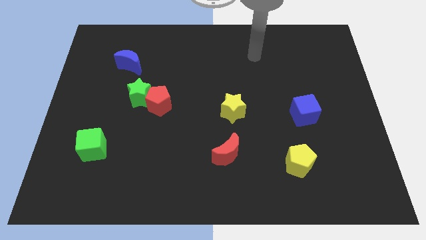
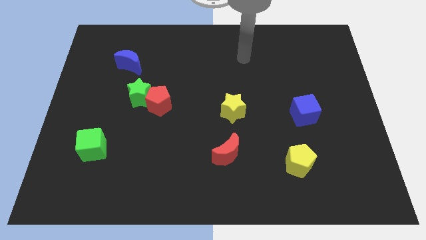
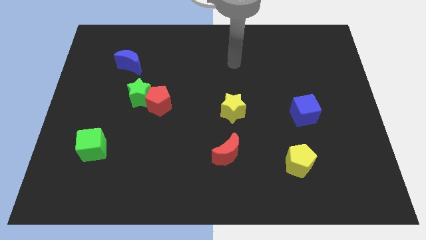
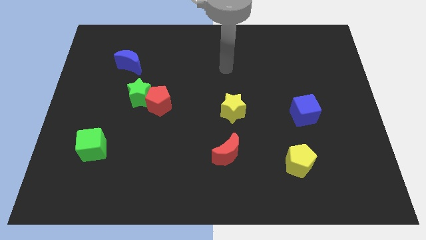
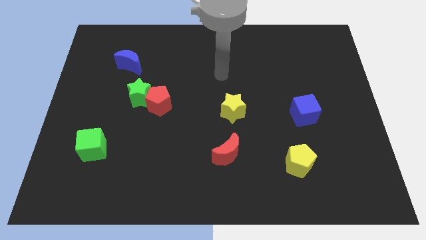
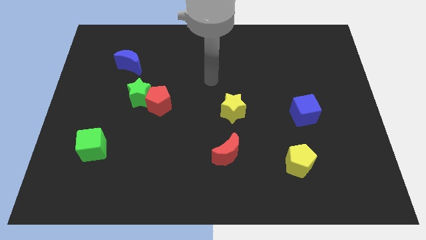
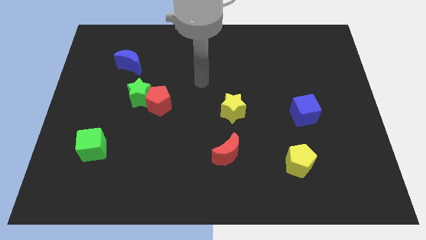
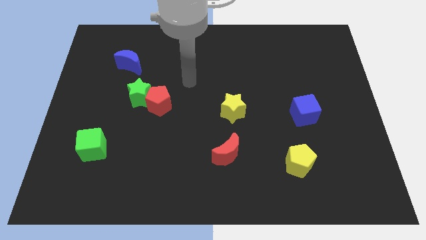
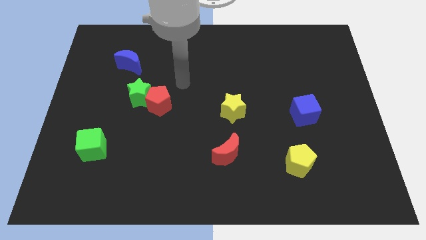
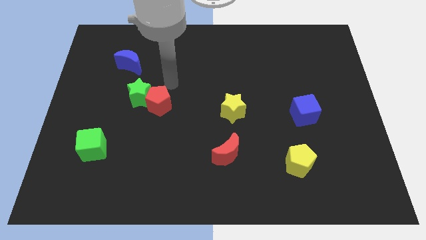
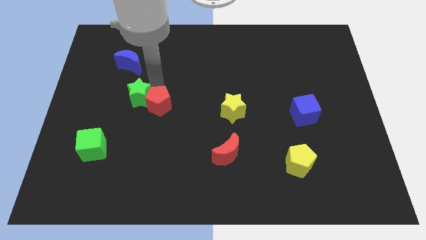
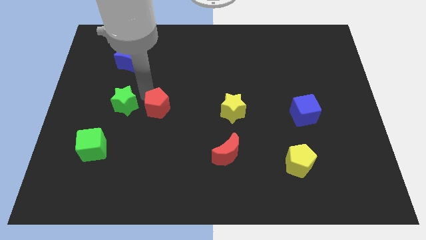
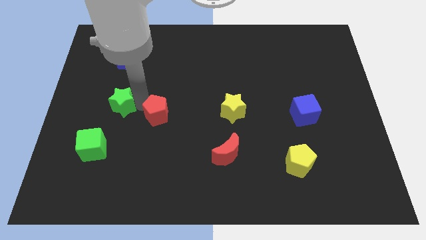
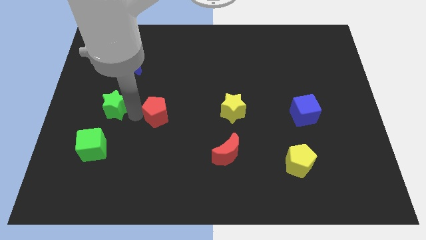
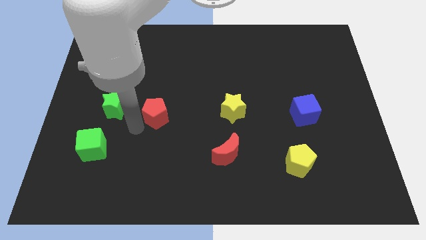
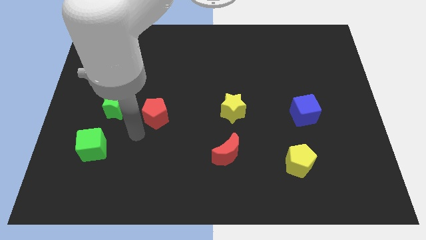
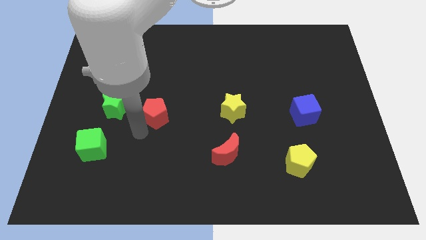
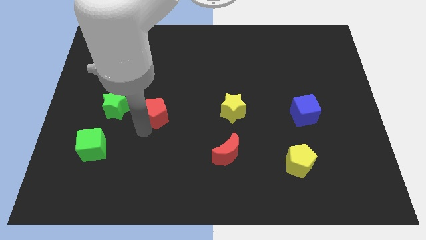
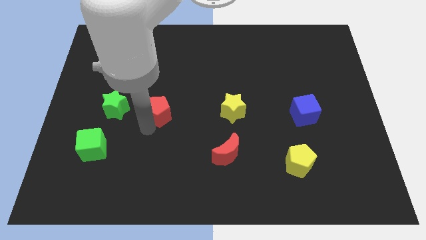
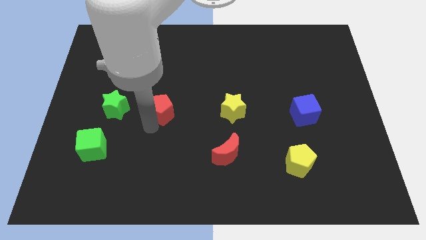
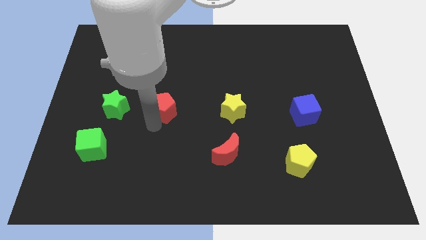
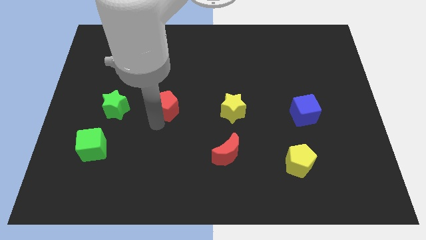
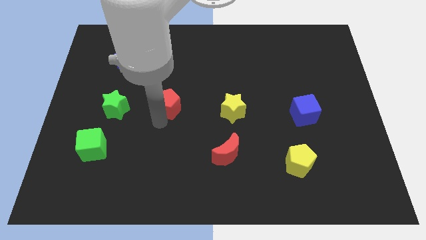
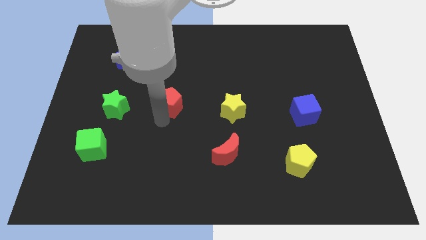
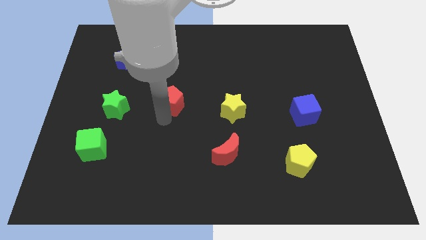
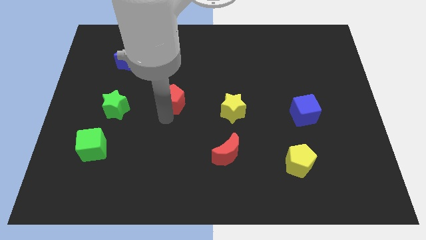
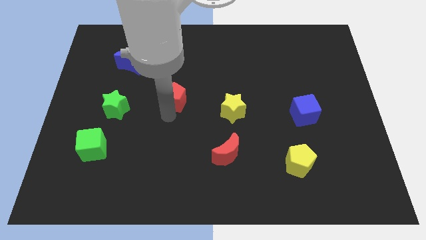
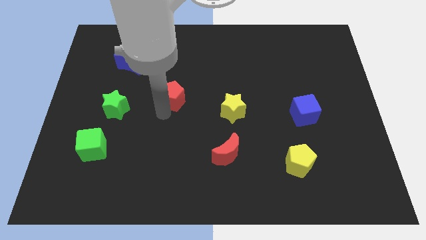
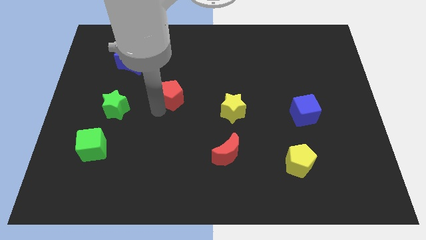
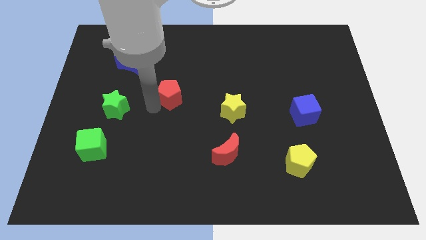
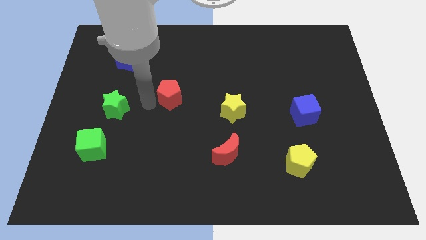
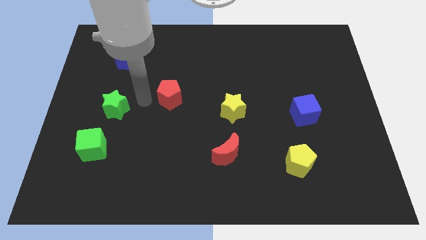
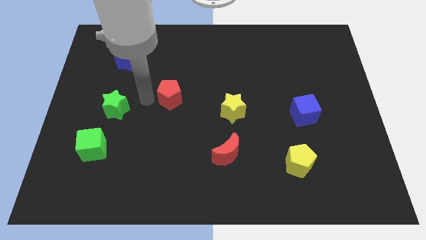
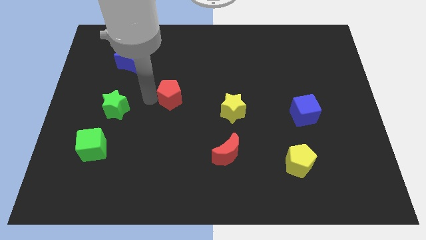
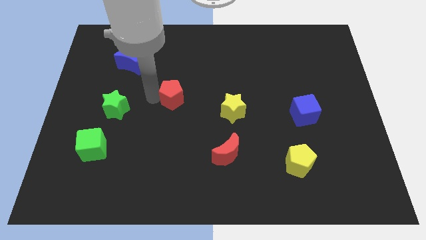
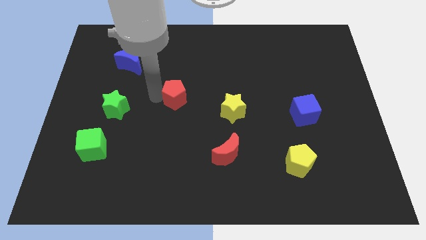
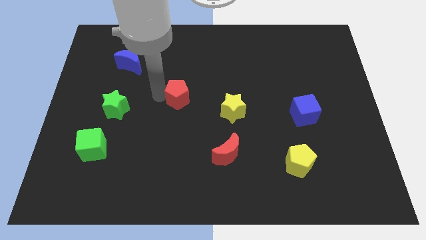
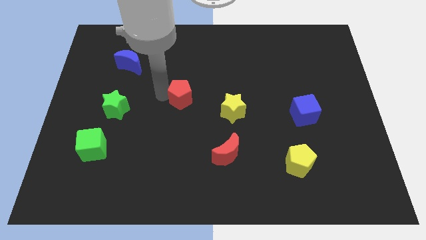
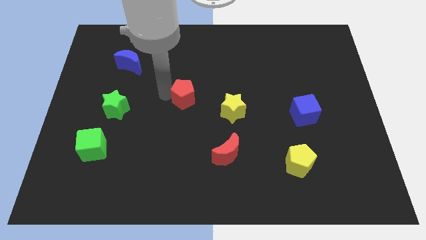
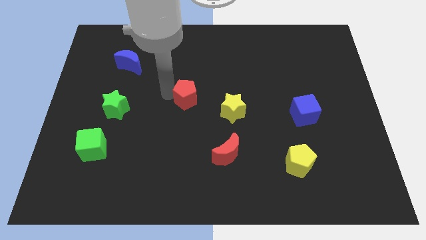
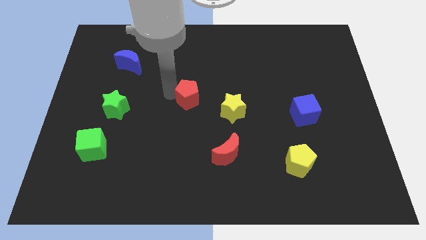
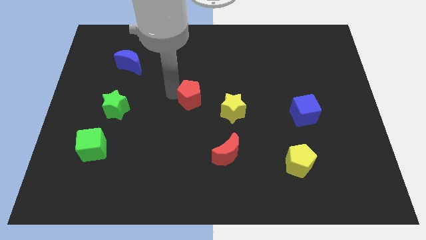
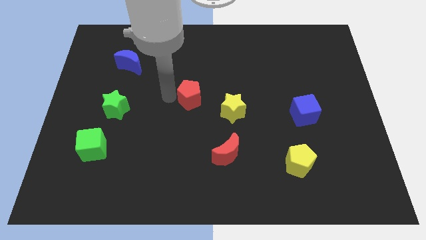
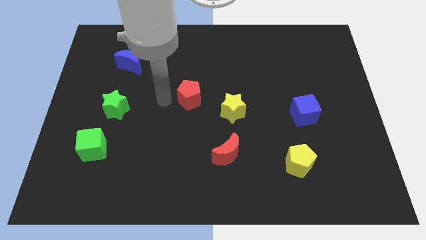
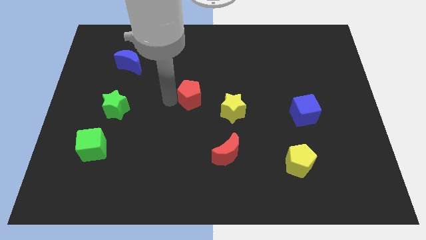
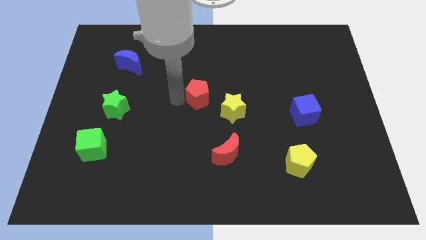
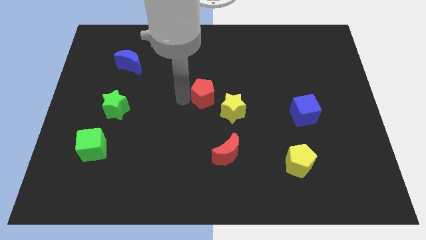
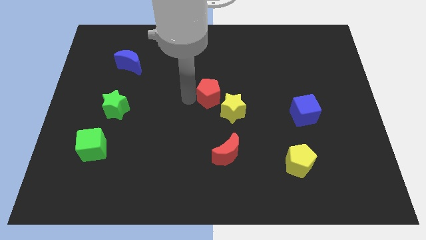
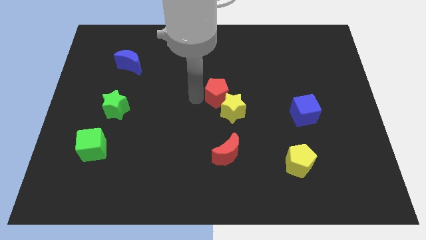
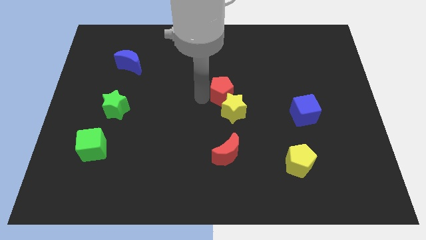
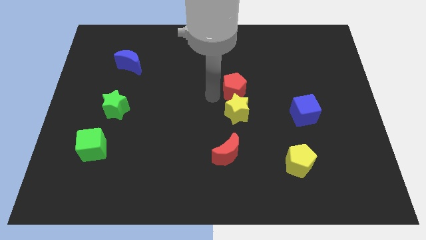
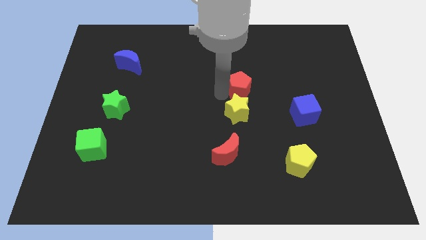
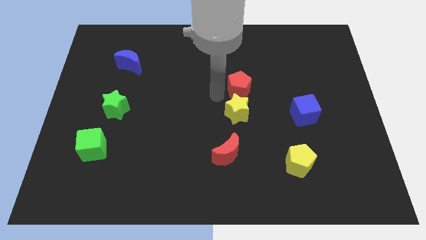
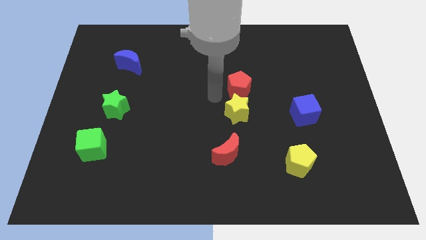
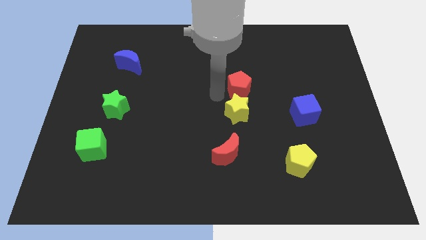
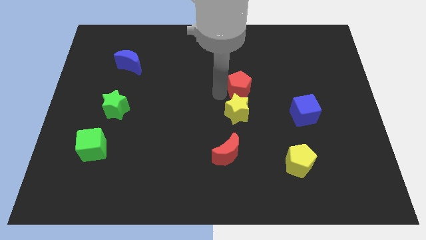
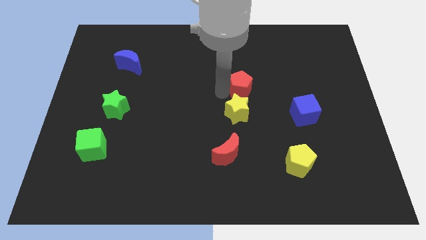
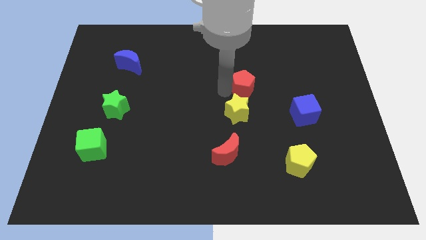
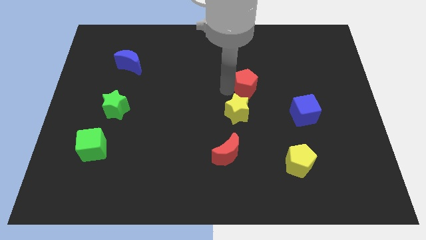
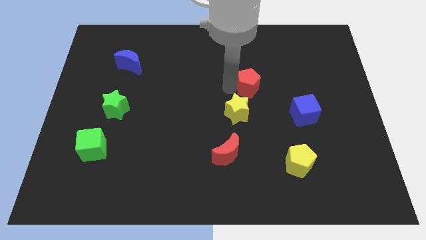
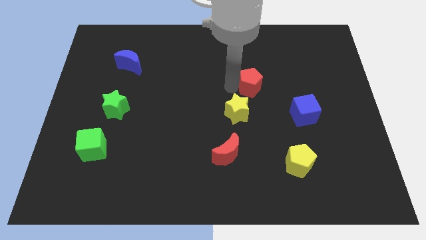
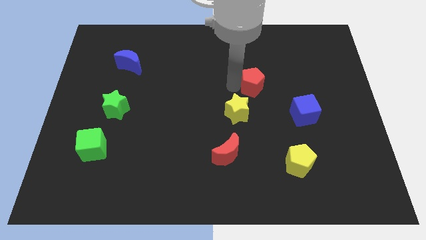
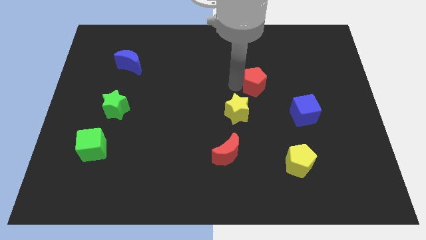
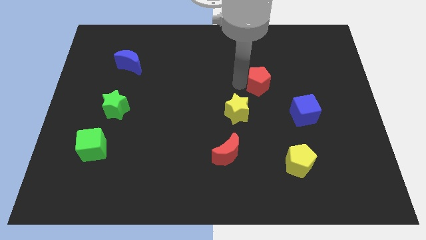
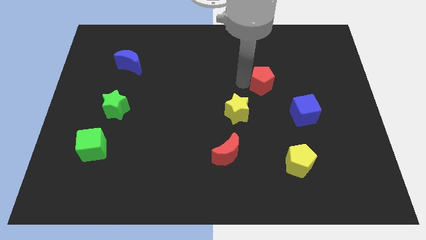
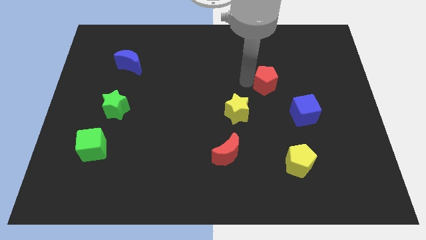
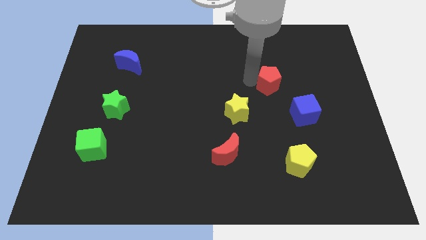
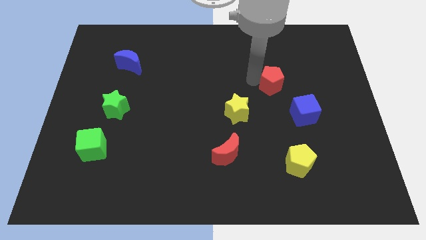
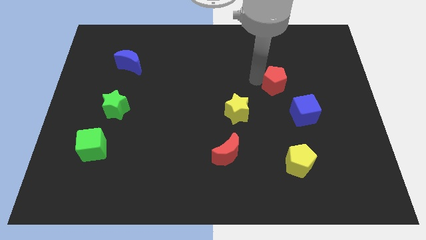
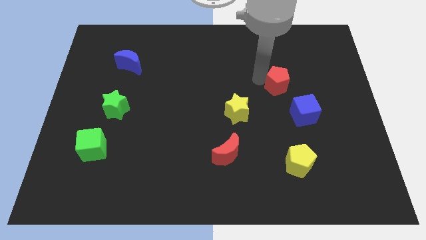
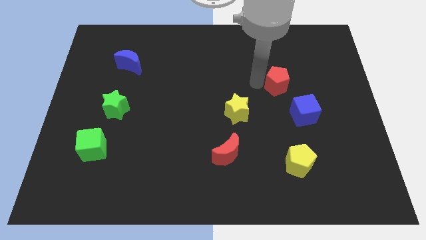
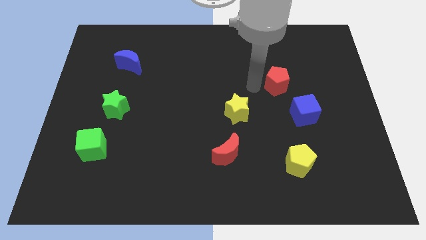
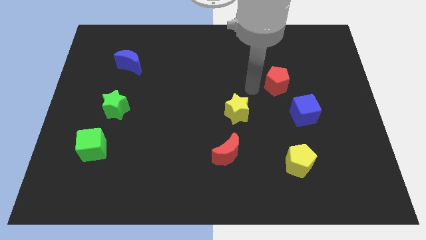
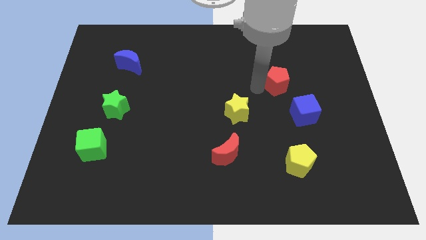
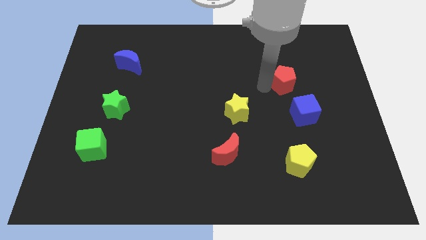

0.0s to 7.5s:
move the red pentagon to the top of the blue cube
